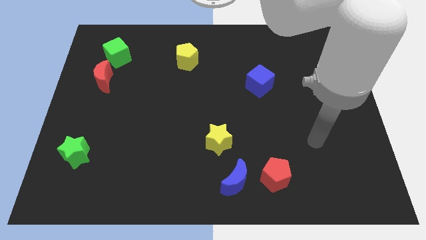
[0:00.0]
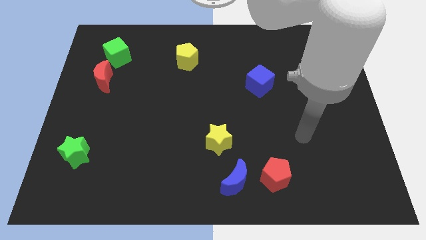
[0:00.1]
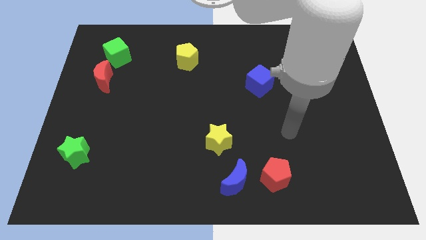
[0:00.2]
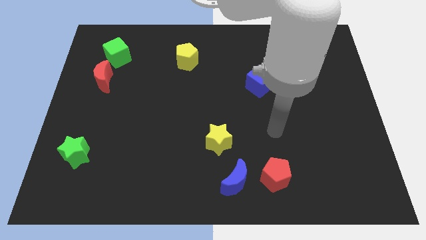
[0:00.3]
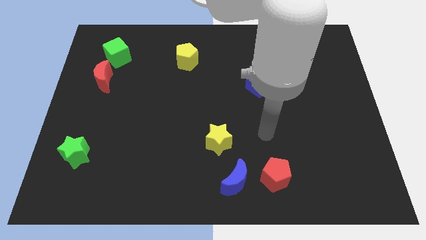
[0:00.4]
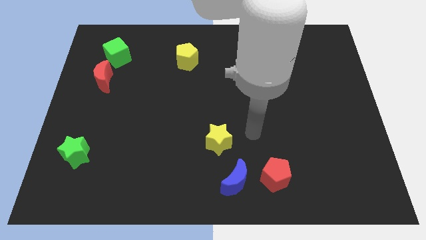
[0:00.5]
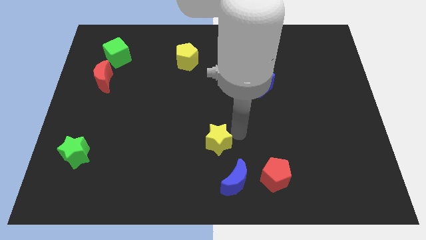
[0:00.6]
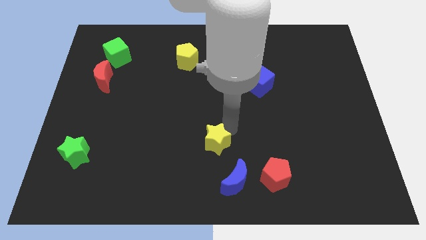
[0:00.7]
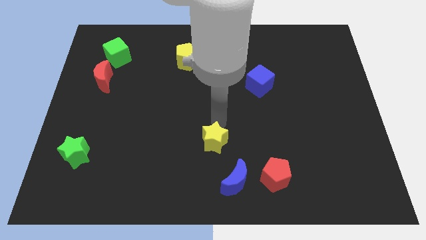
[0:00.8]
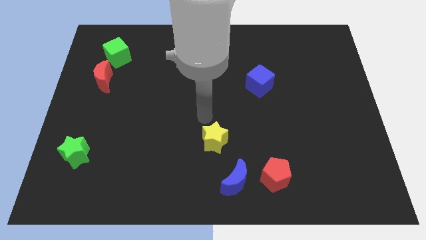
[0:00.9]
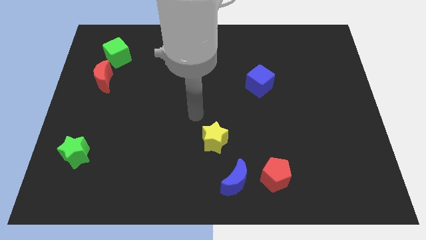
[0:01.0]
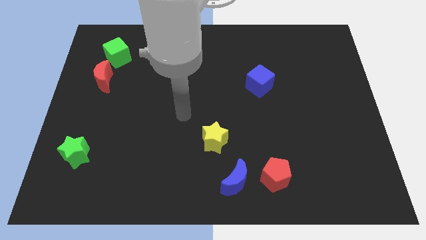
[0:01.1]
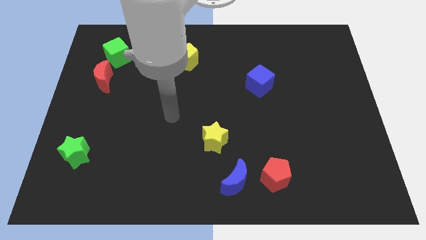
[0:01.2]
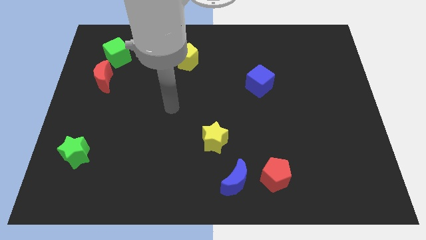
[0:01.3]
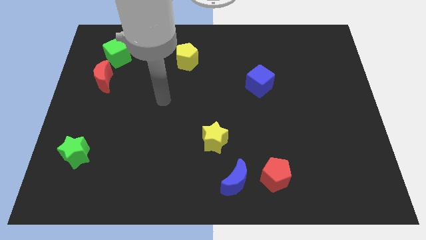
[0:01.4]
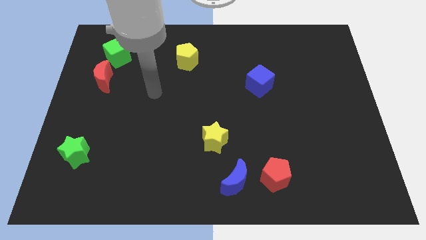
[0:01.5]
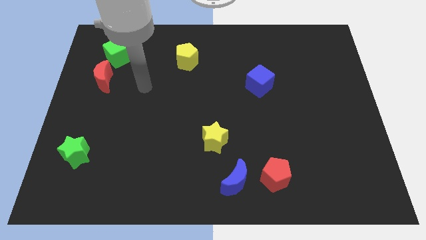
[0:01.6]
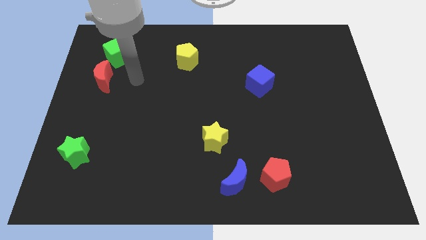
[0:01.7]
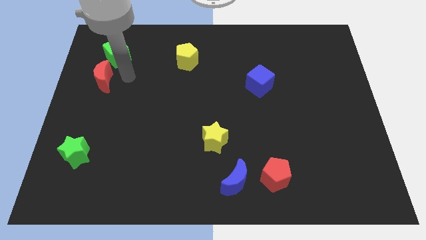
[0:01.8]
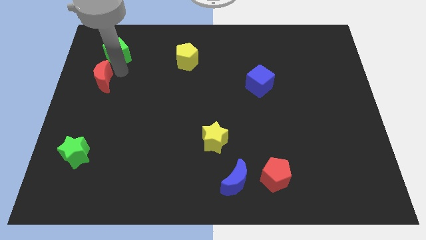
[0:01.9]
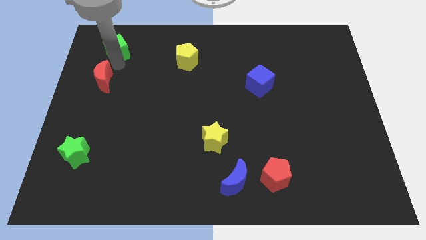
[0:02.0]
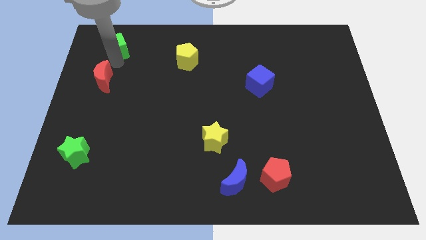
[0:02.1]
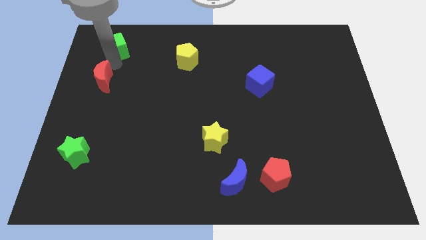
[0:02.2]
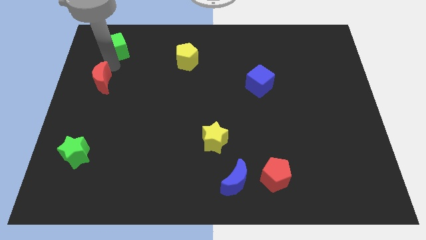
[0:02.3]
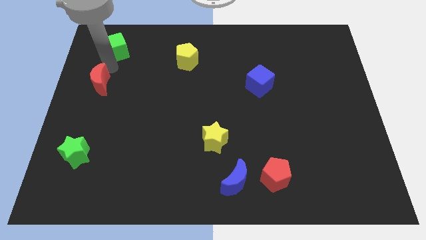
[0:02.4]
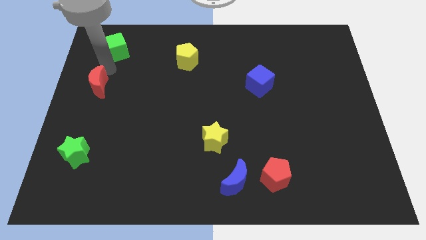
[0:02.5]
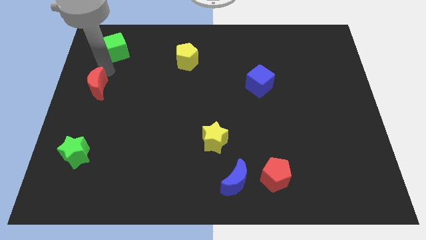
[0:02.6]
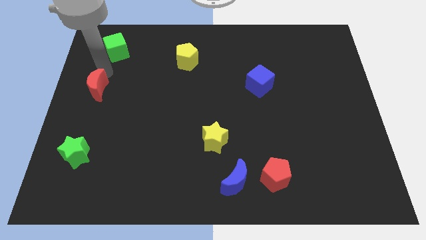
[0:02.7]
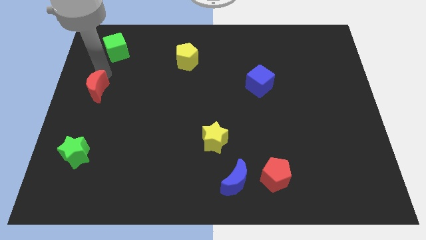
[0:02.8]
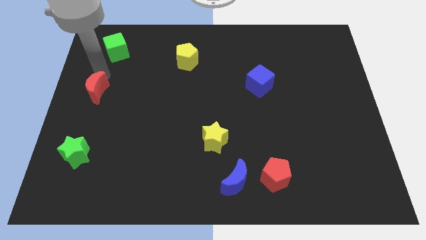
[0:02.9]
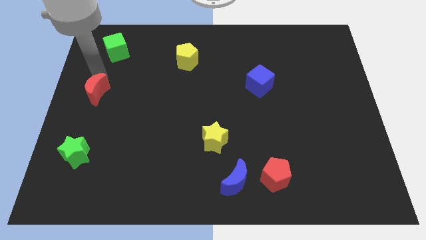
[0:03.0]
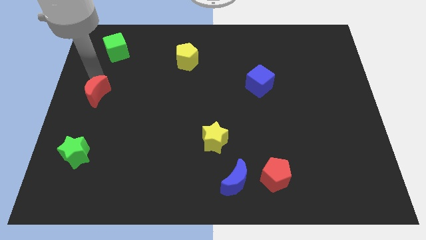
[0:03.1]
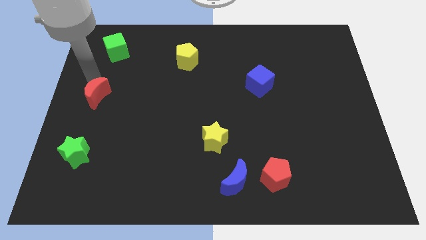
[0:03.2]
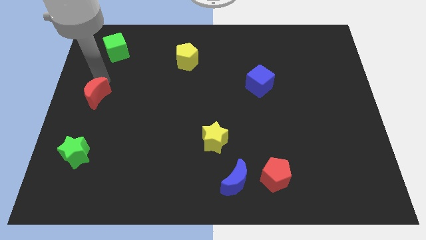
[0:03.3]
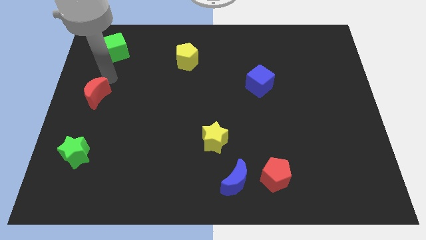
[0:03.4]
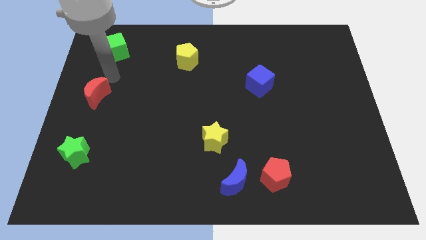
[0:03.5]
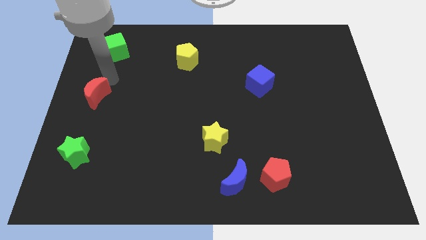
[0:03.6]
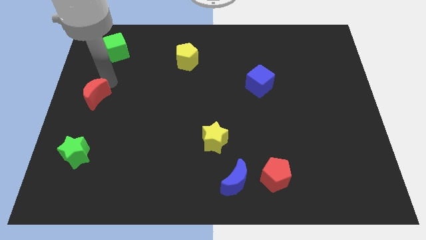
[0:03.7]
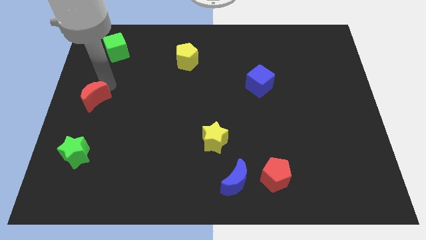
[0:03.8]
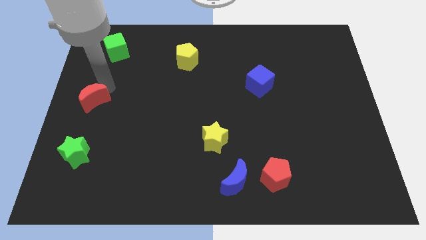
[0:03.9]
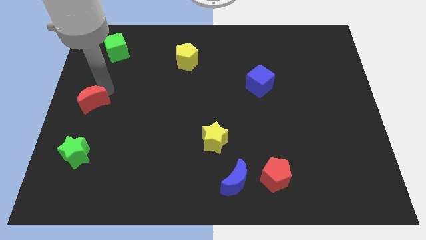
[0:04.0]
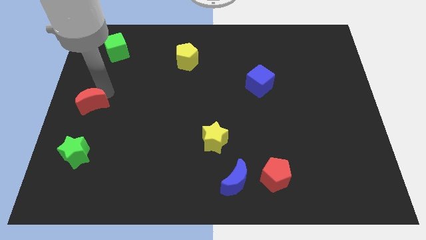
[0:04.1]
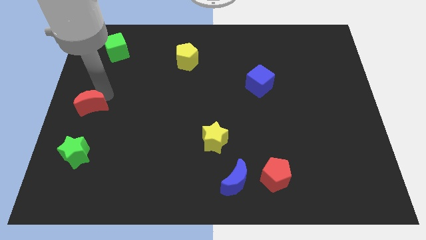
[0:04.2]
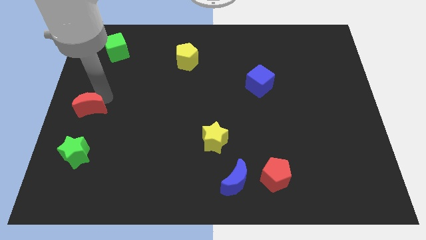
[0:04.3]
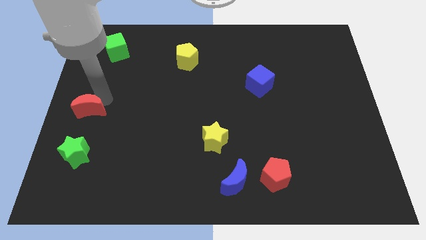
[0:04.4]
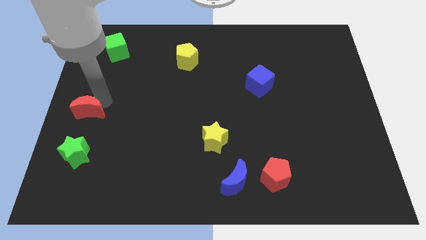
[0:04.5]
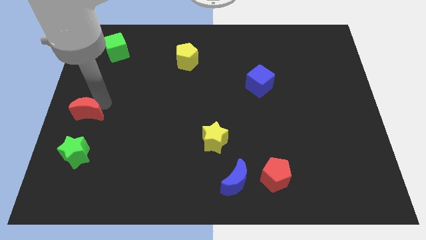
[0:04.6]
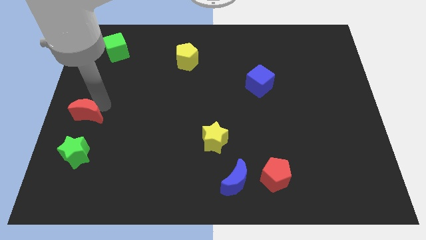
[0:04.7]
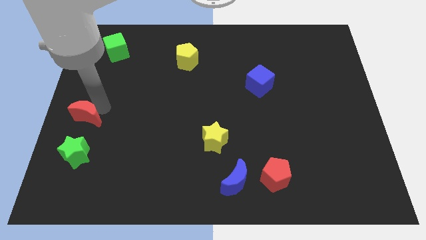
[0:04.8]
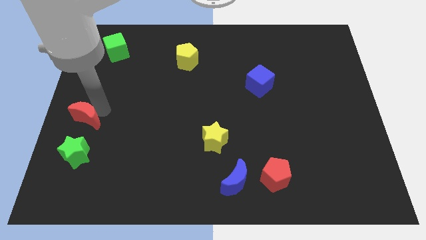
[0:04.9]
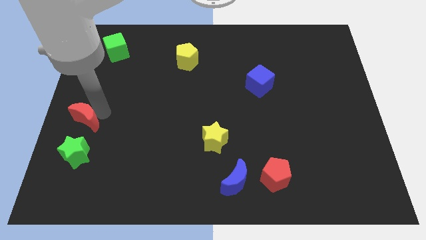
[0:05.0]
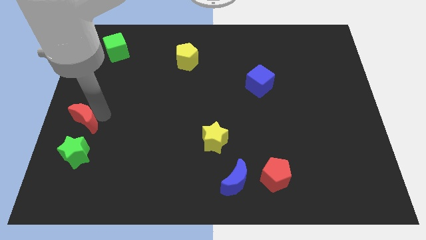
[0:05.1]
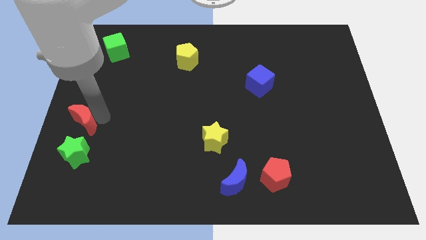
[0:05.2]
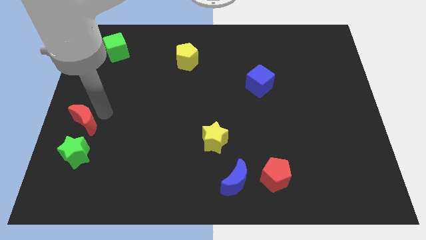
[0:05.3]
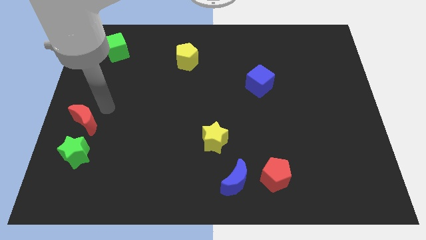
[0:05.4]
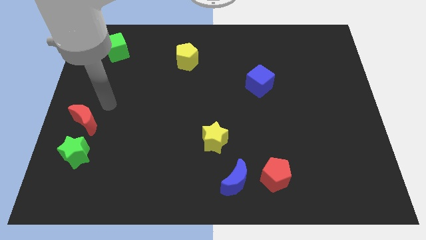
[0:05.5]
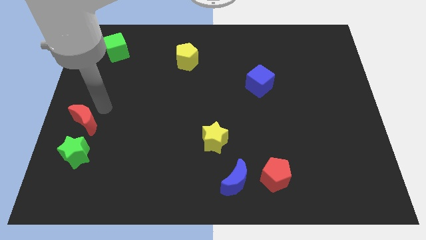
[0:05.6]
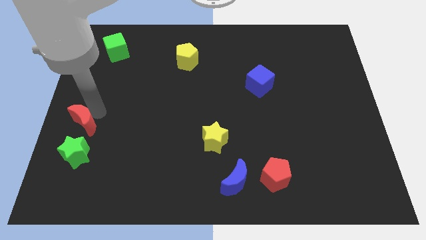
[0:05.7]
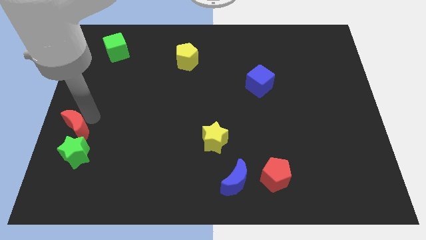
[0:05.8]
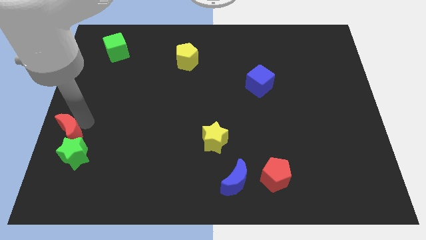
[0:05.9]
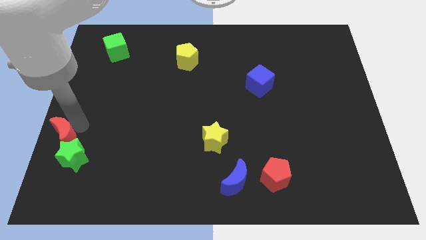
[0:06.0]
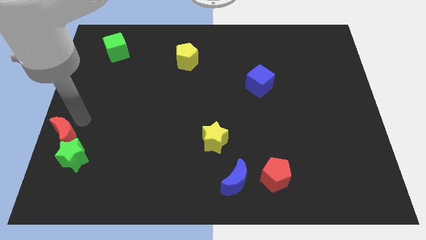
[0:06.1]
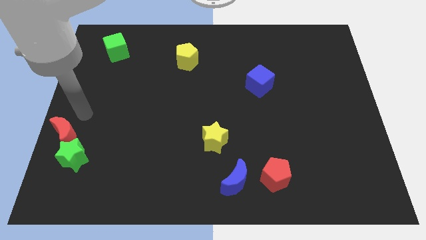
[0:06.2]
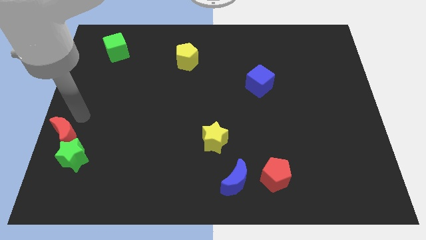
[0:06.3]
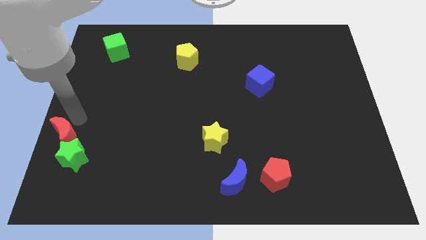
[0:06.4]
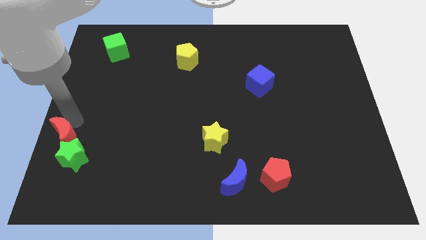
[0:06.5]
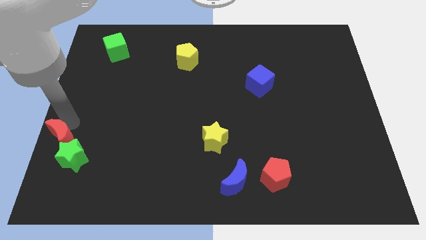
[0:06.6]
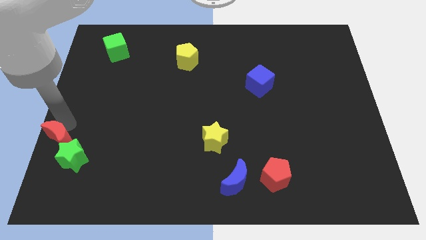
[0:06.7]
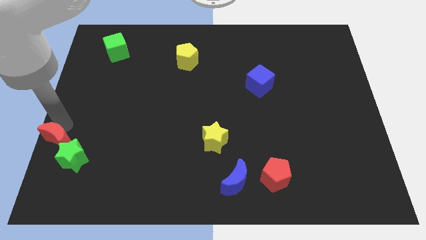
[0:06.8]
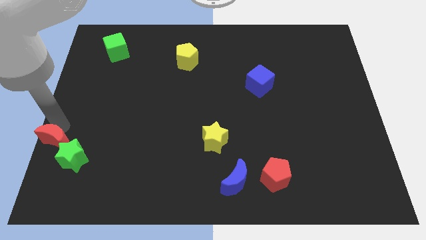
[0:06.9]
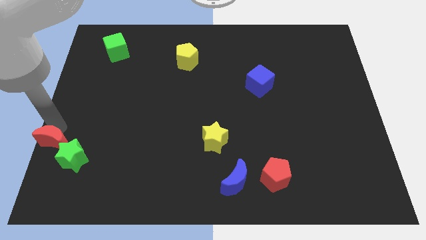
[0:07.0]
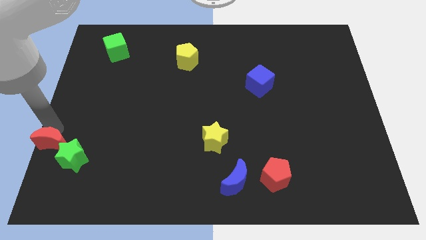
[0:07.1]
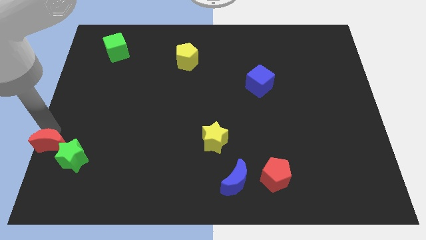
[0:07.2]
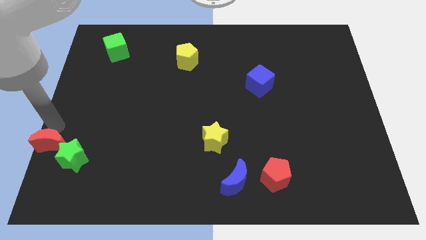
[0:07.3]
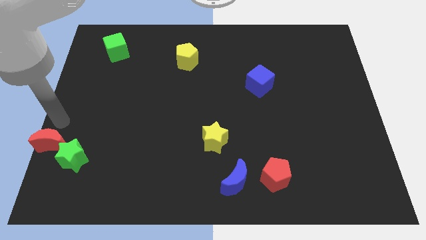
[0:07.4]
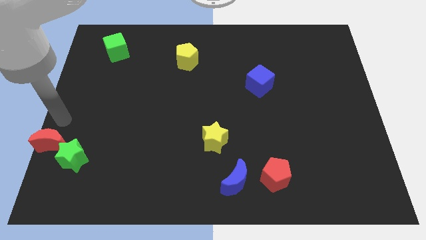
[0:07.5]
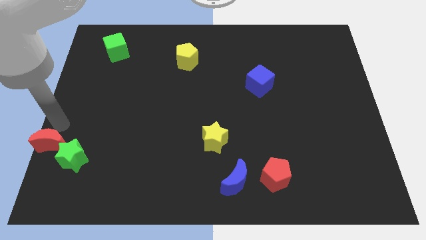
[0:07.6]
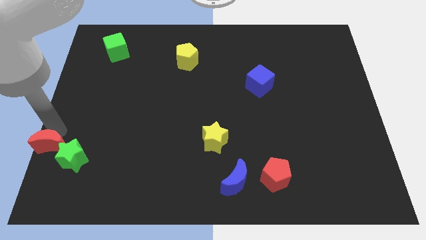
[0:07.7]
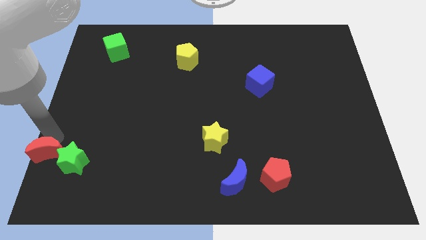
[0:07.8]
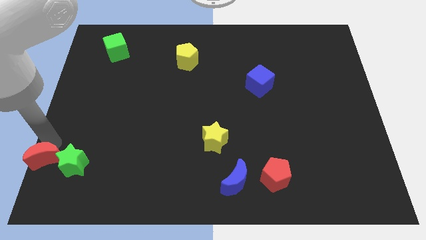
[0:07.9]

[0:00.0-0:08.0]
push the red moon to the bottom left corner
